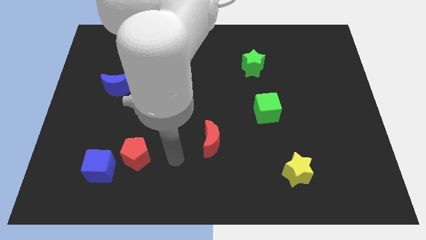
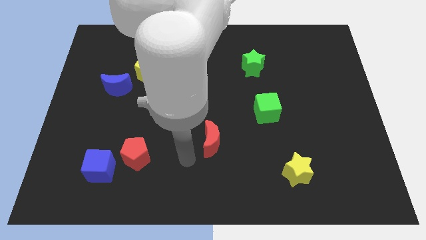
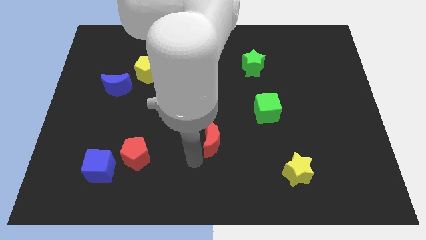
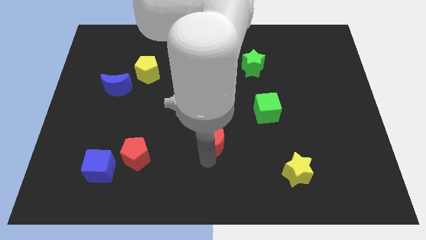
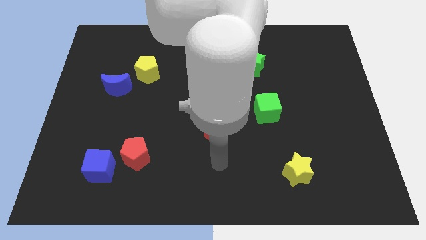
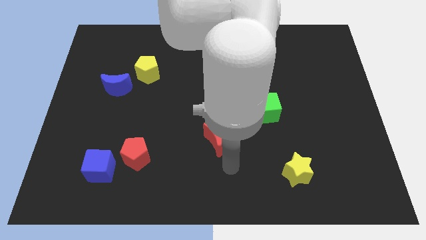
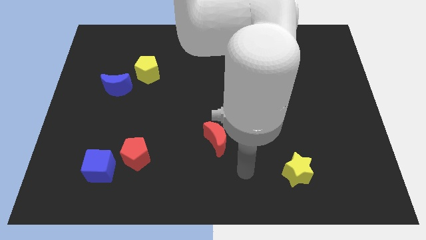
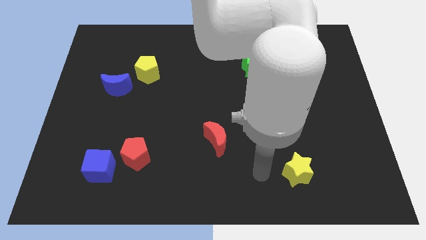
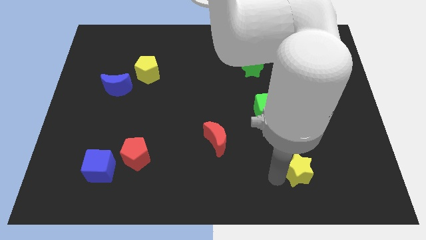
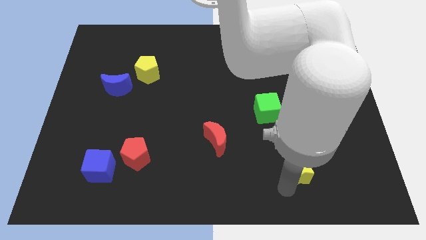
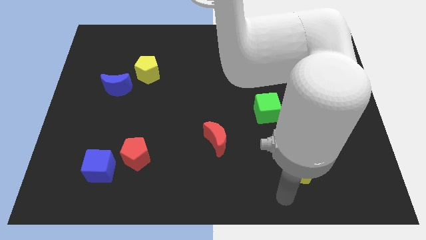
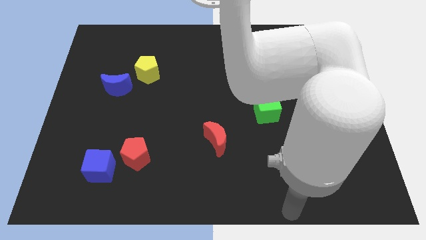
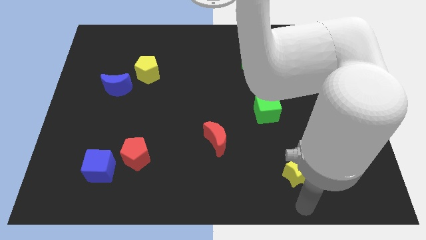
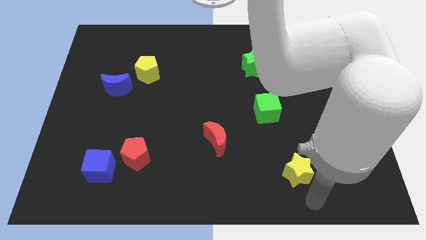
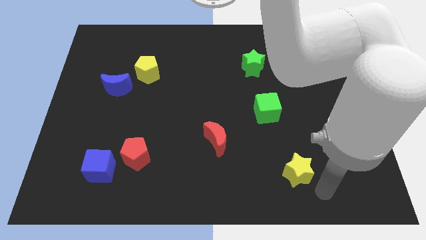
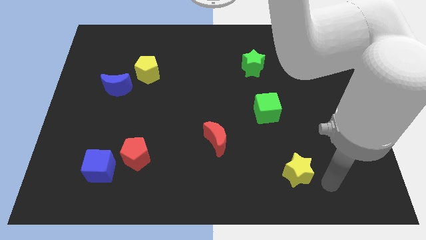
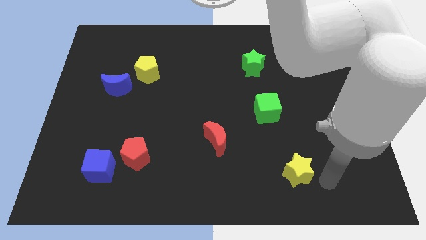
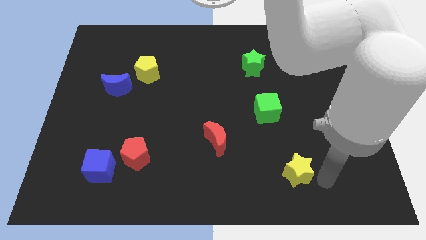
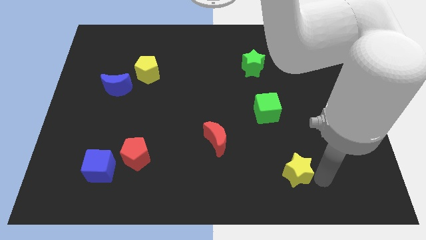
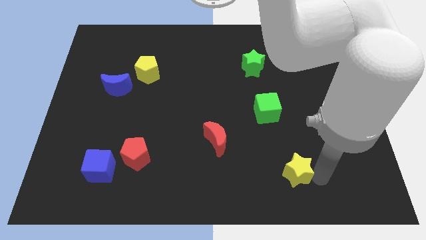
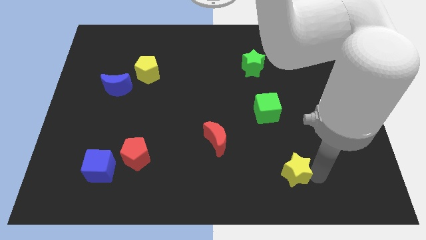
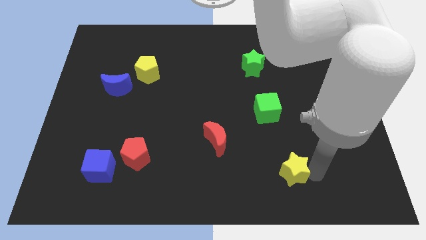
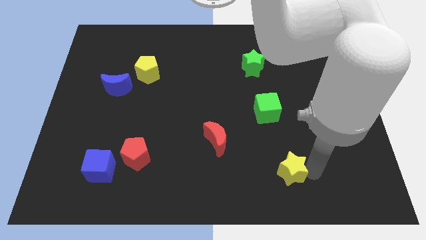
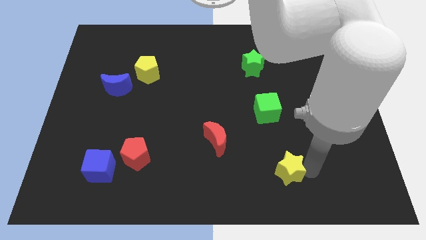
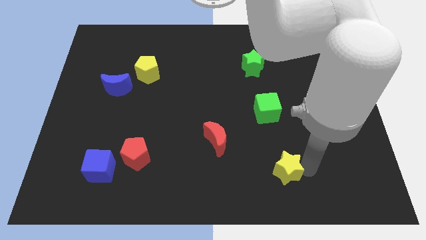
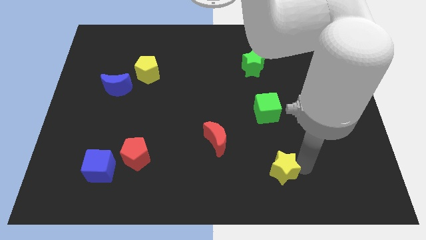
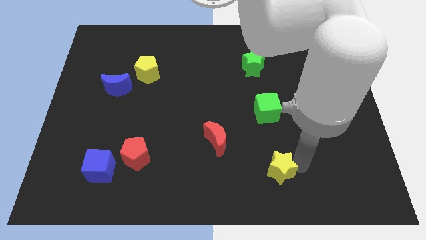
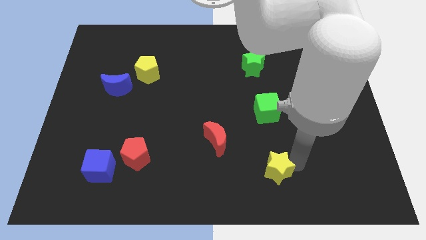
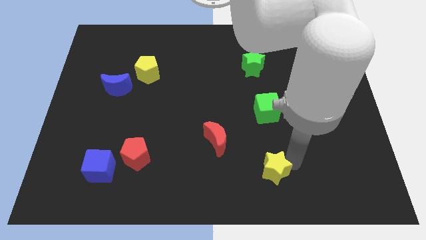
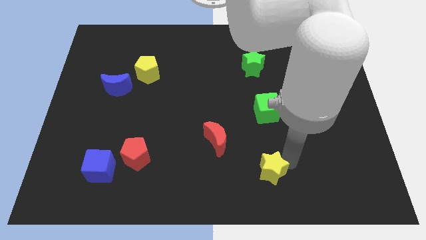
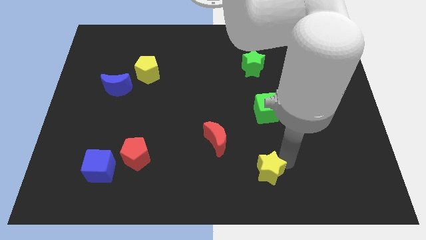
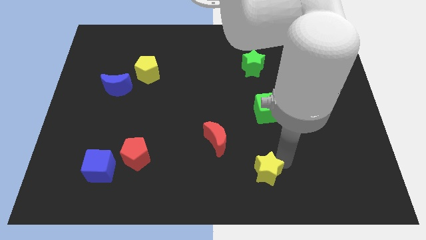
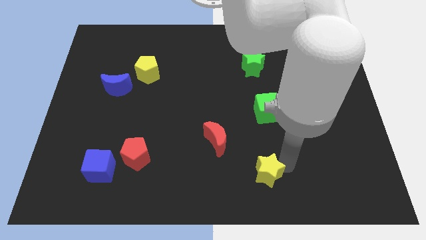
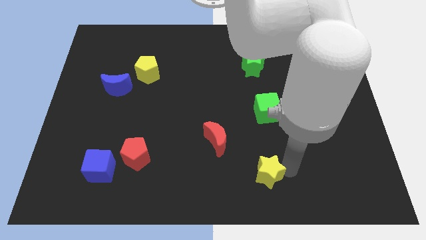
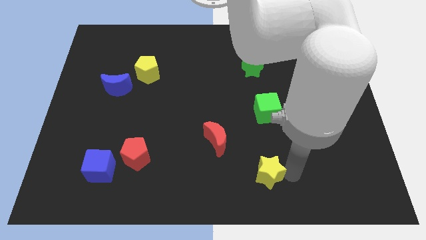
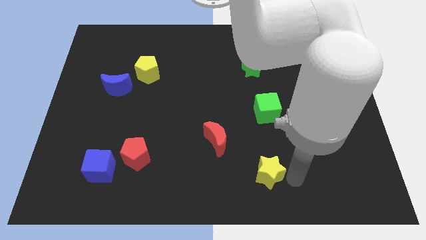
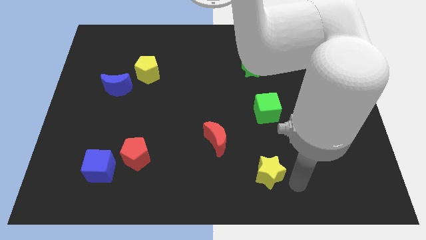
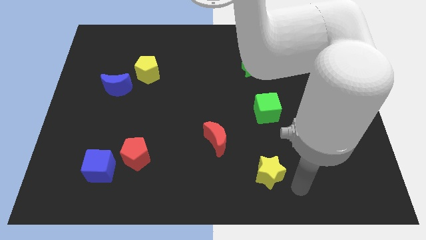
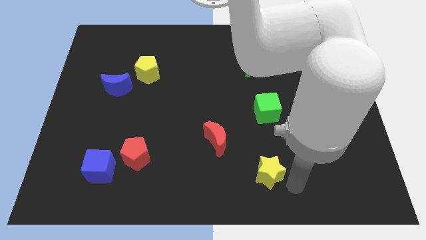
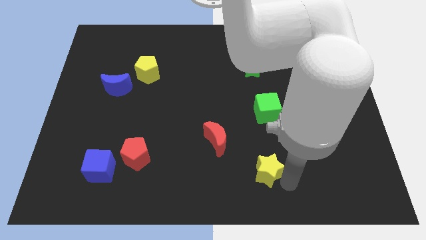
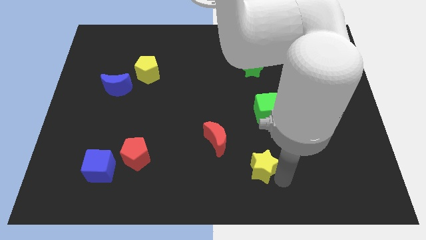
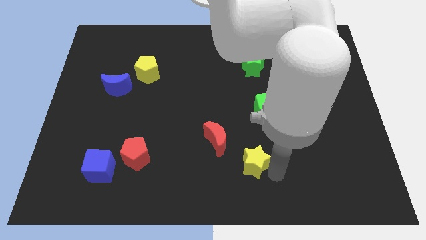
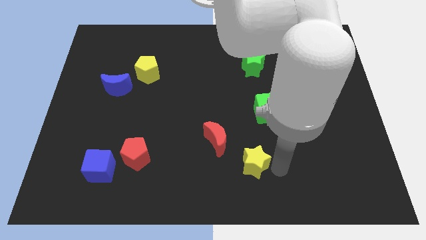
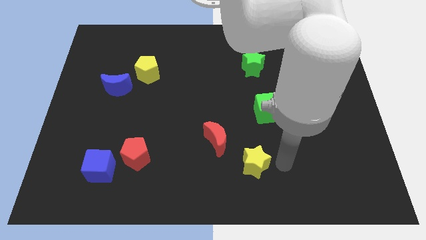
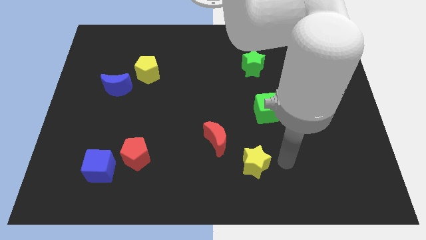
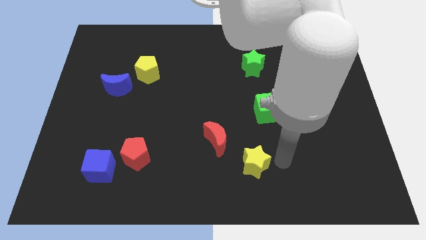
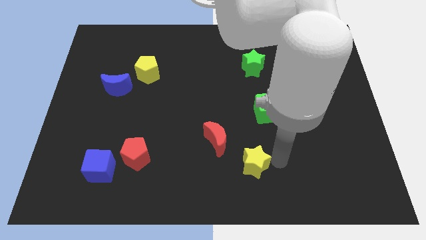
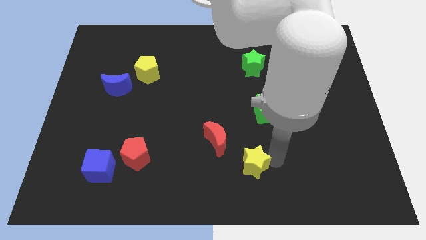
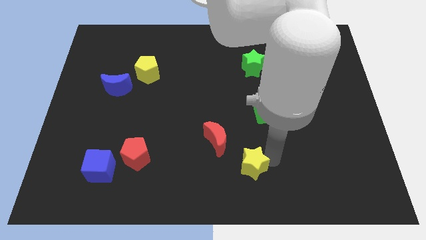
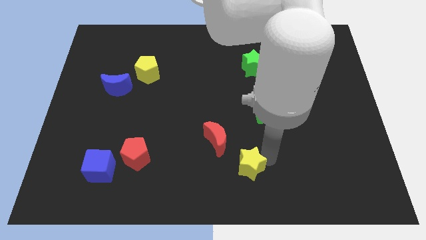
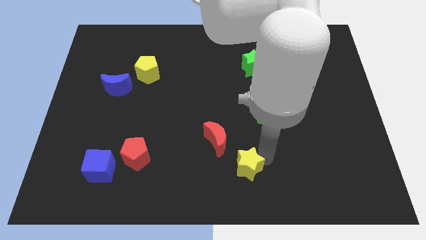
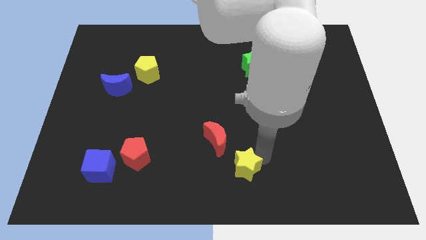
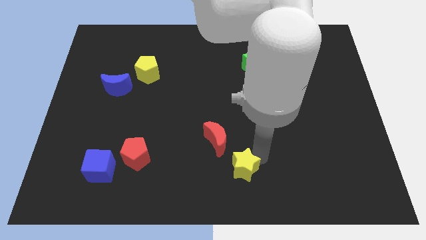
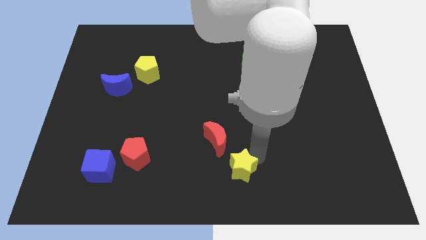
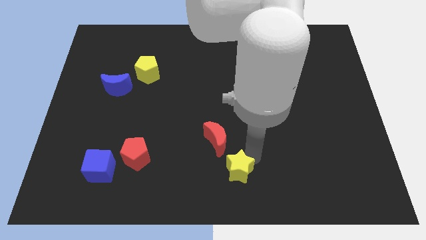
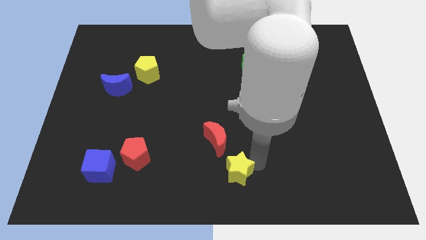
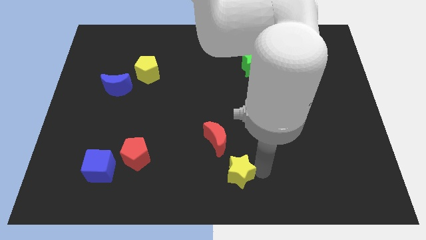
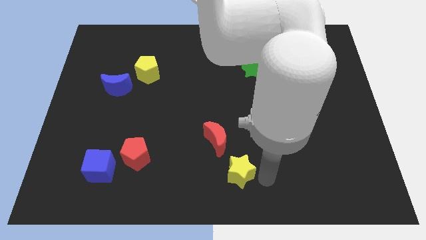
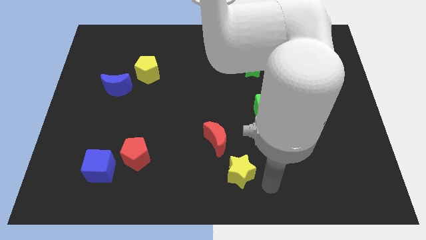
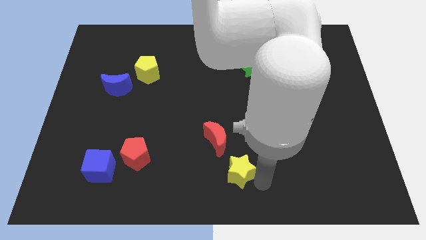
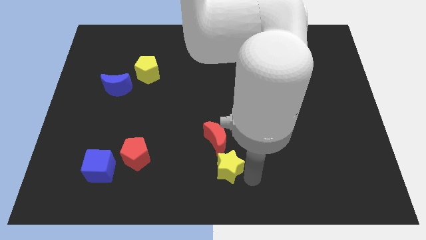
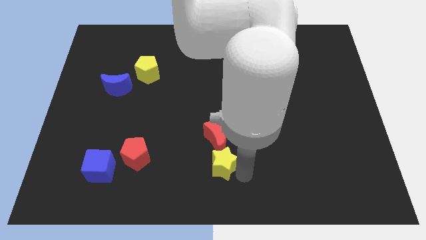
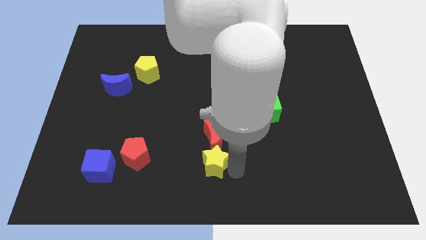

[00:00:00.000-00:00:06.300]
move the yellow star to the bottom left of the red moon

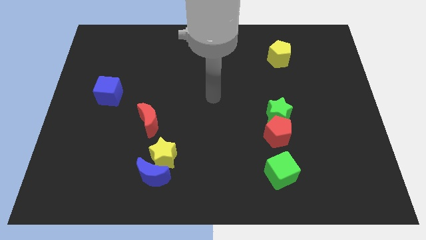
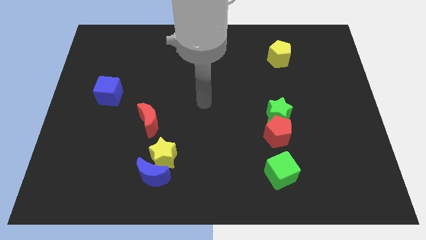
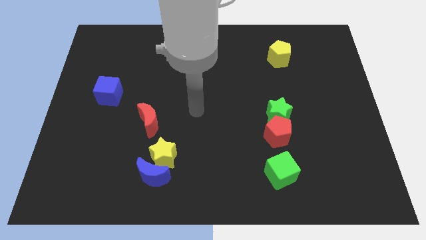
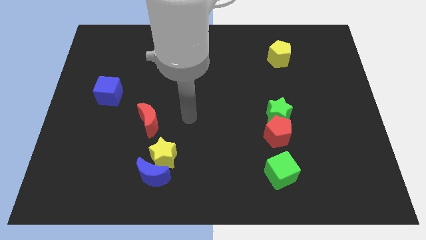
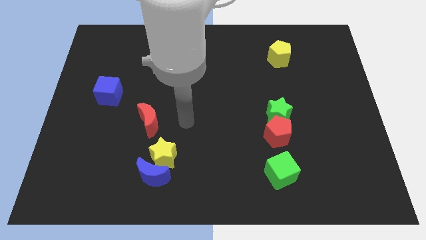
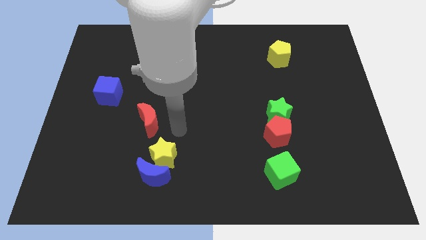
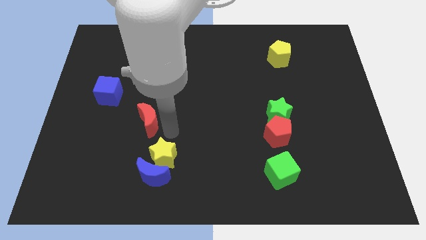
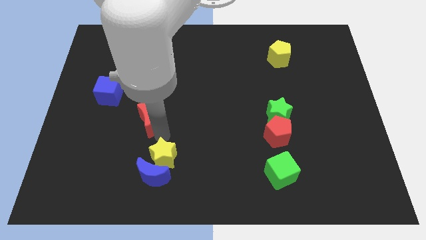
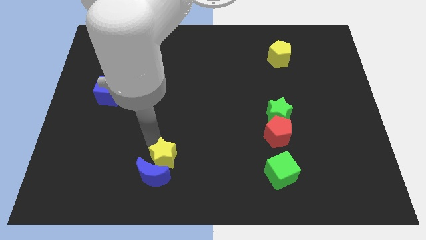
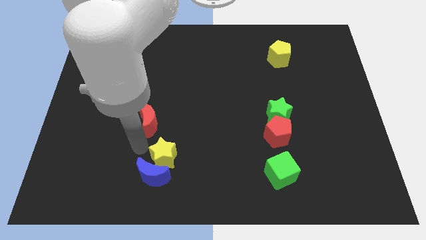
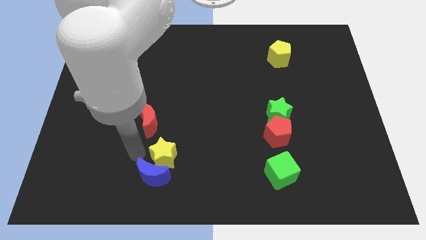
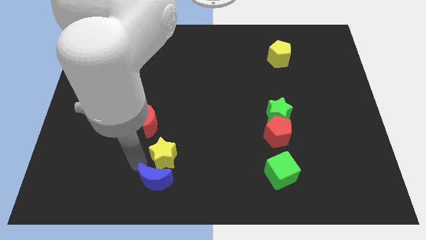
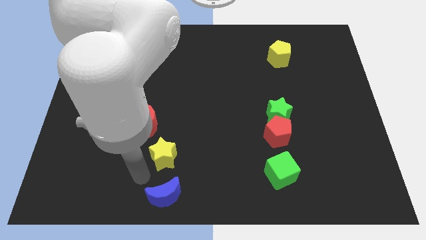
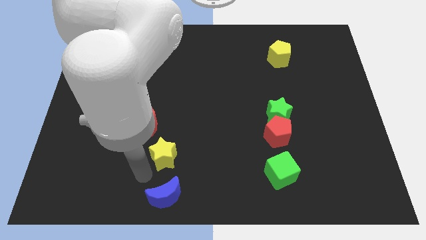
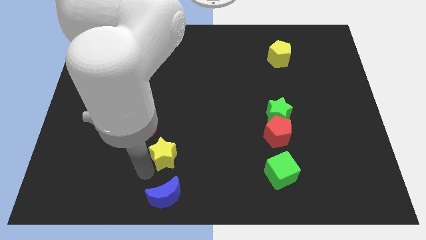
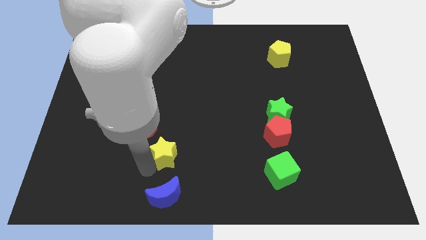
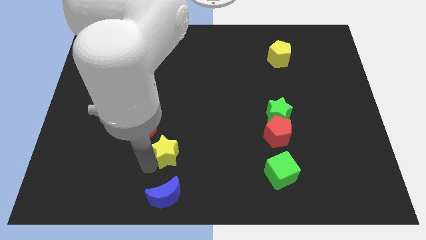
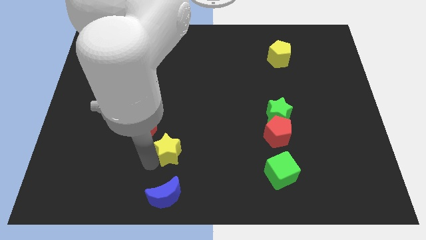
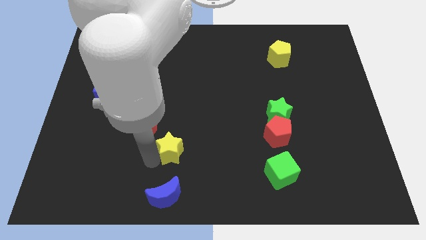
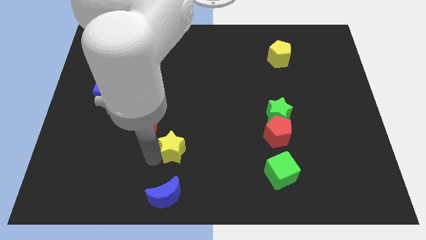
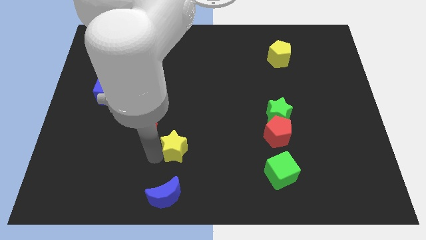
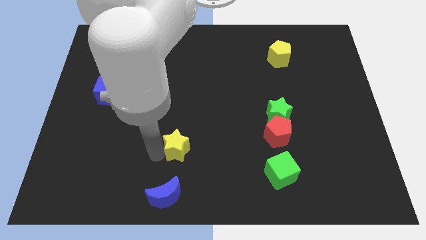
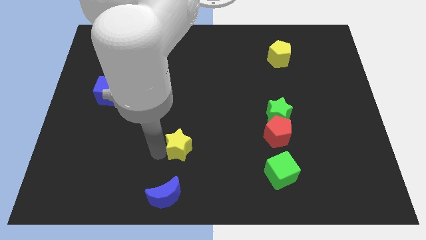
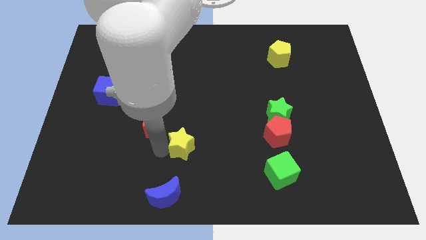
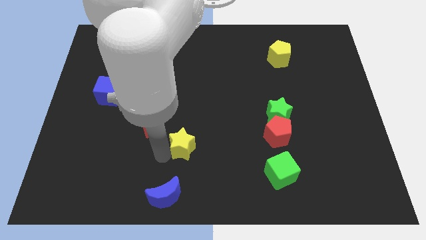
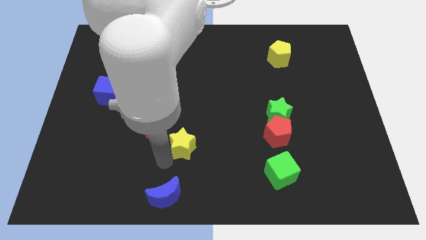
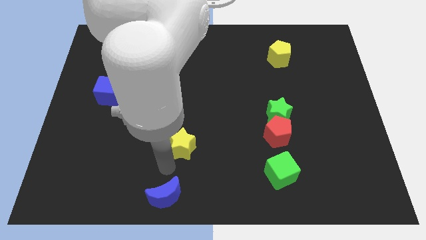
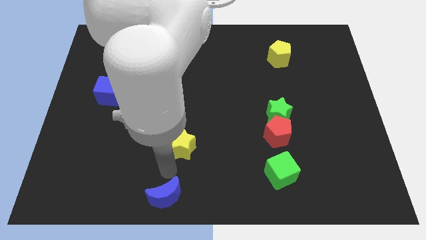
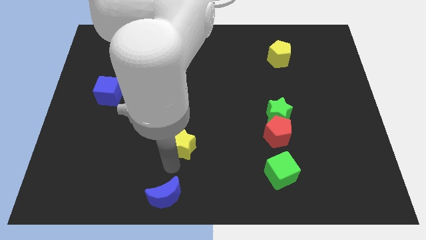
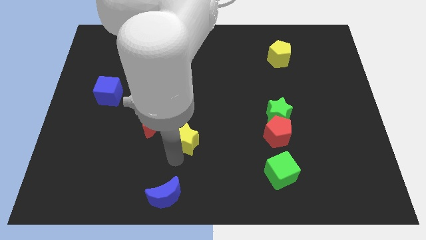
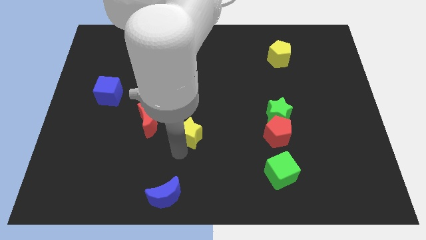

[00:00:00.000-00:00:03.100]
slide the yellow star just right of the red moon
